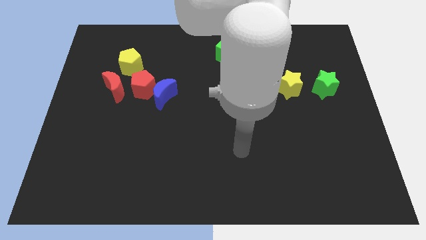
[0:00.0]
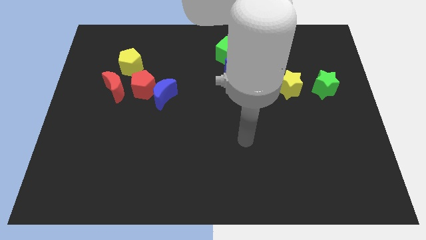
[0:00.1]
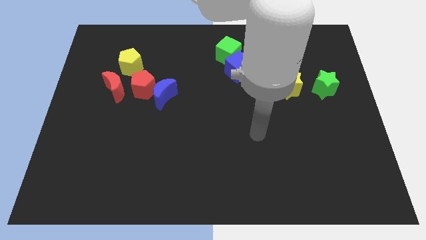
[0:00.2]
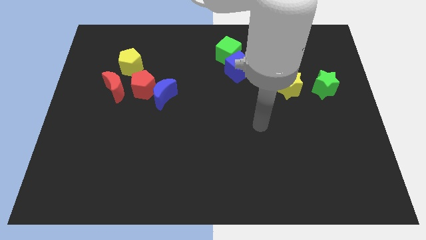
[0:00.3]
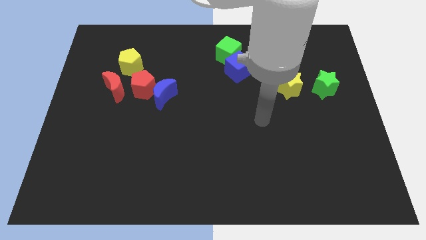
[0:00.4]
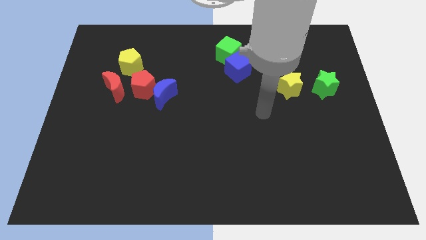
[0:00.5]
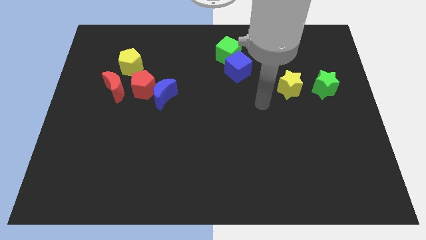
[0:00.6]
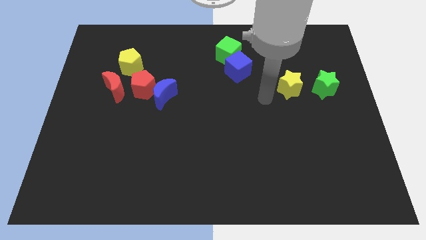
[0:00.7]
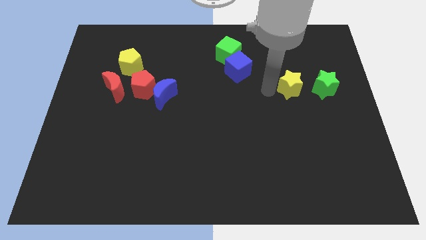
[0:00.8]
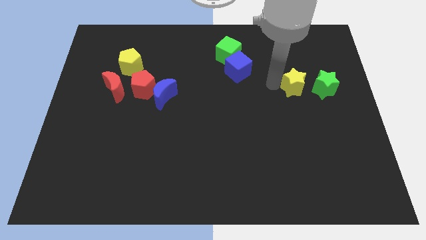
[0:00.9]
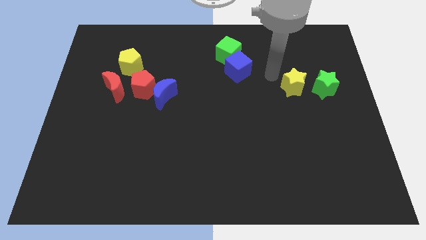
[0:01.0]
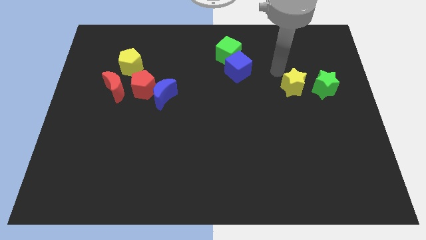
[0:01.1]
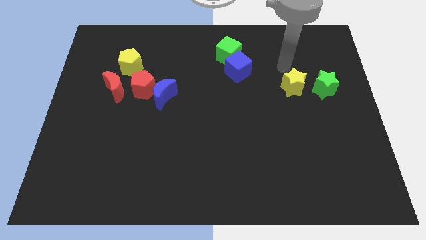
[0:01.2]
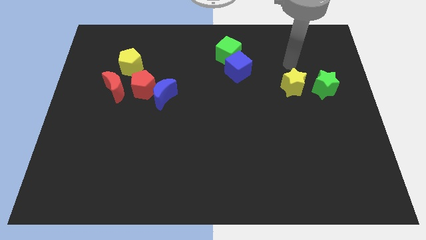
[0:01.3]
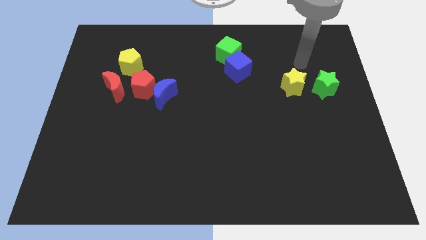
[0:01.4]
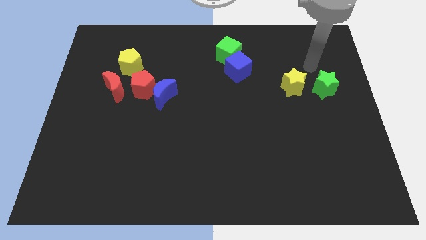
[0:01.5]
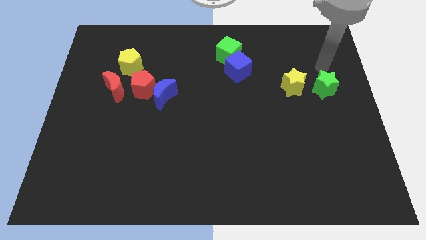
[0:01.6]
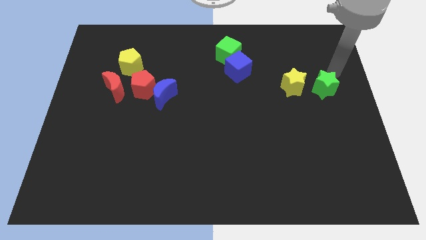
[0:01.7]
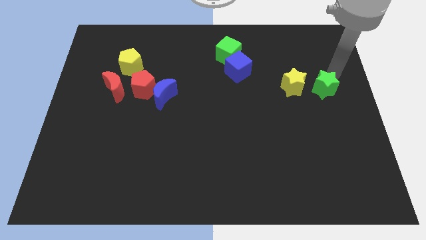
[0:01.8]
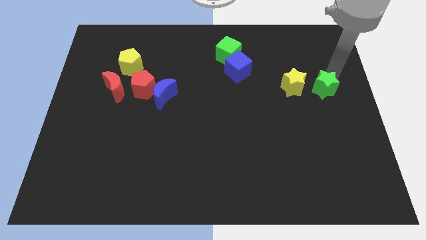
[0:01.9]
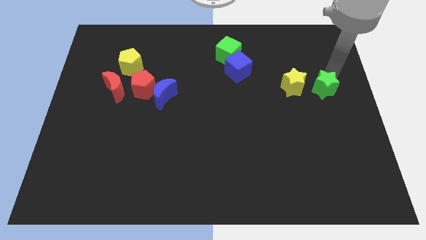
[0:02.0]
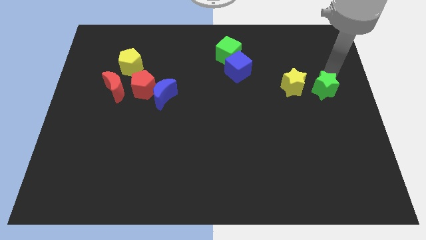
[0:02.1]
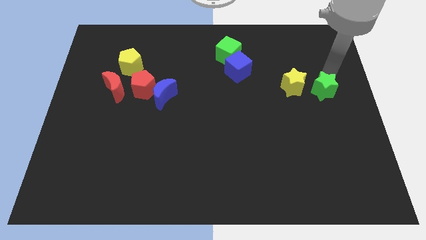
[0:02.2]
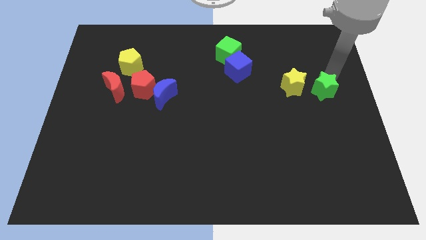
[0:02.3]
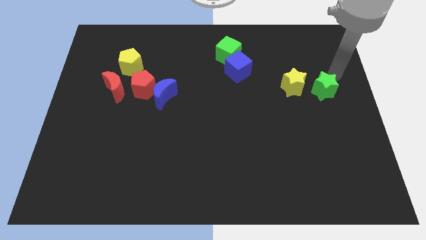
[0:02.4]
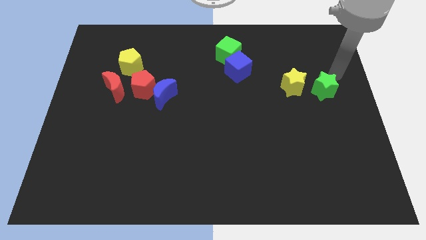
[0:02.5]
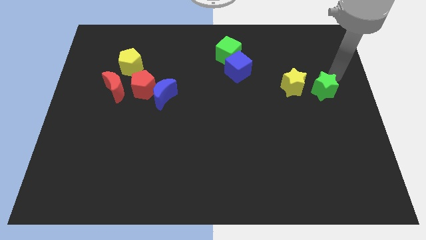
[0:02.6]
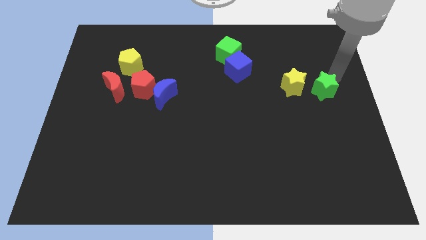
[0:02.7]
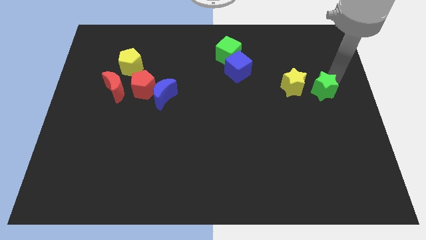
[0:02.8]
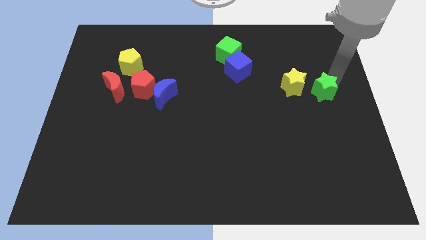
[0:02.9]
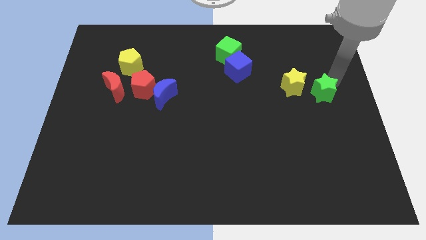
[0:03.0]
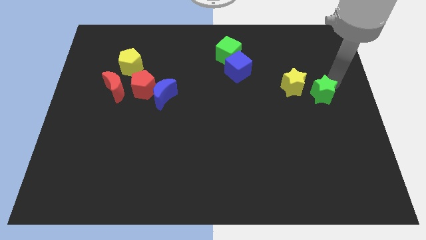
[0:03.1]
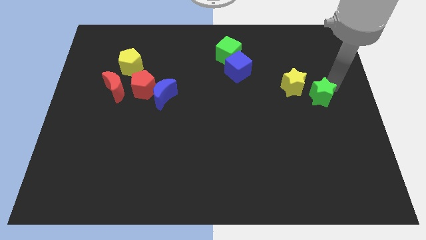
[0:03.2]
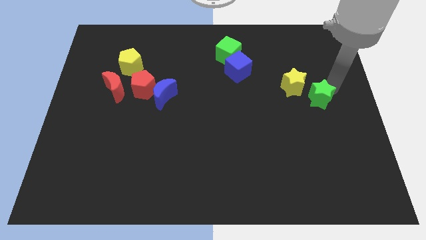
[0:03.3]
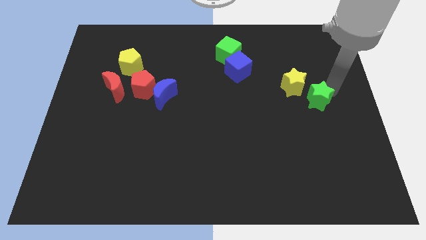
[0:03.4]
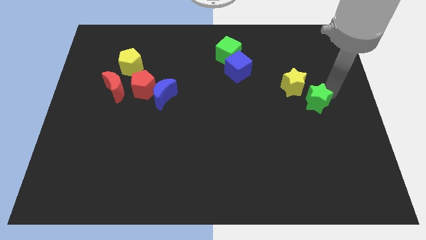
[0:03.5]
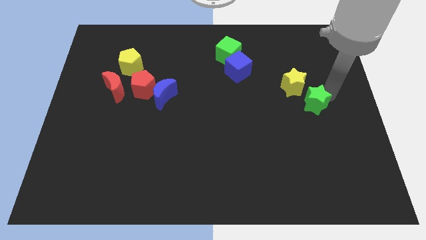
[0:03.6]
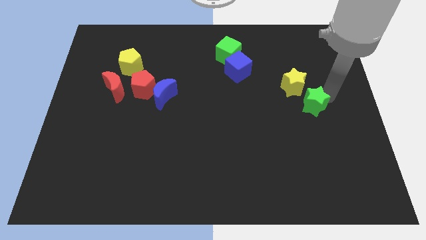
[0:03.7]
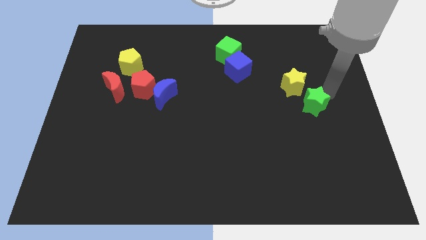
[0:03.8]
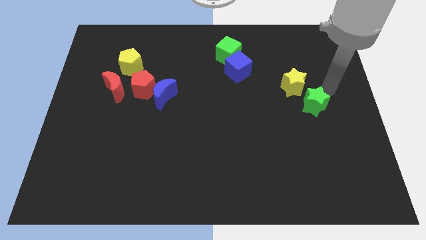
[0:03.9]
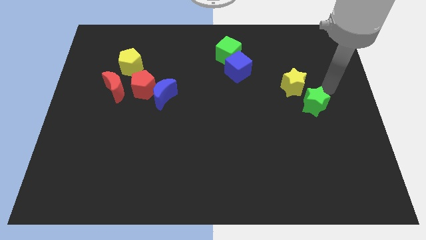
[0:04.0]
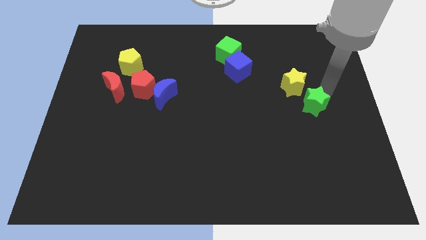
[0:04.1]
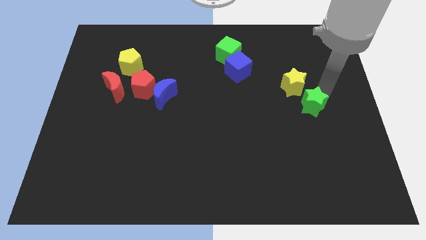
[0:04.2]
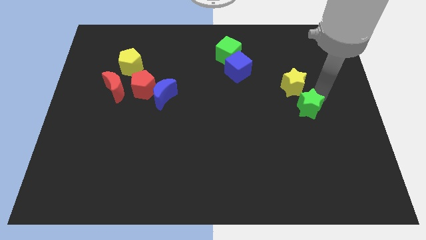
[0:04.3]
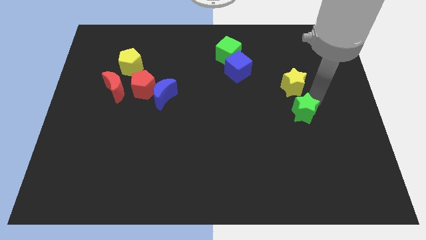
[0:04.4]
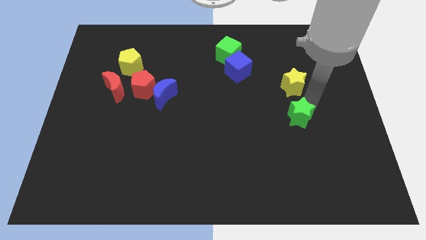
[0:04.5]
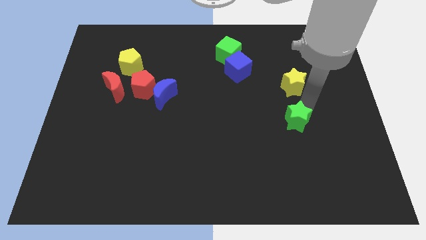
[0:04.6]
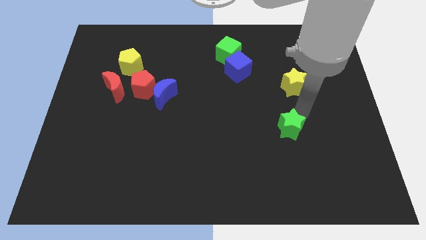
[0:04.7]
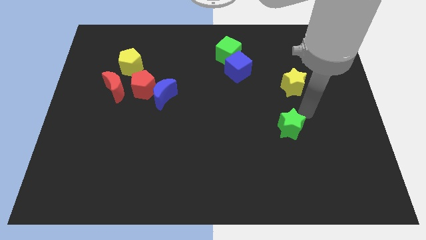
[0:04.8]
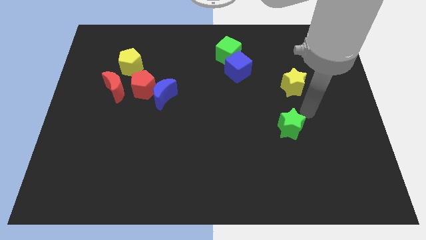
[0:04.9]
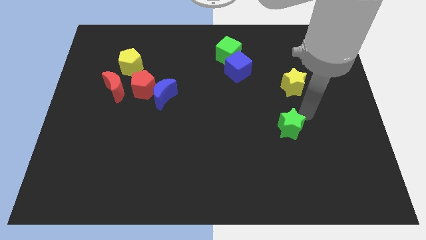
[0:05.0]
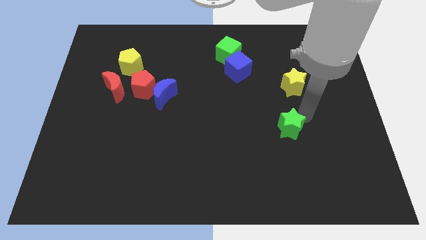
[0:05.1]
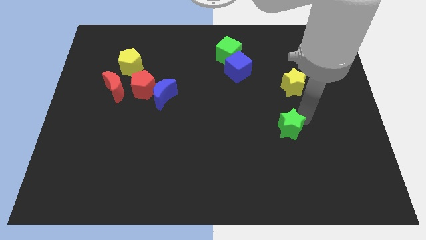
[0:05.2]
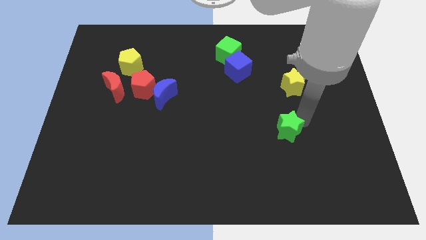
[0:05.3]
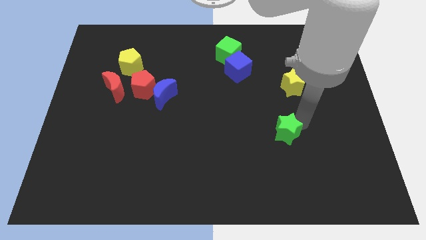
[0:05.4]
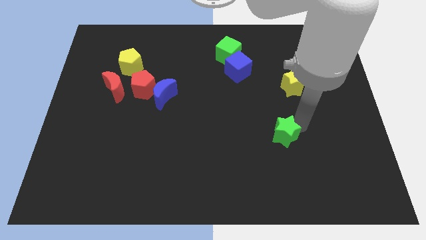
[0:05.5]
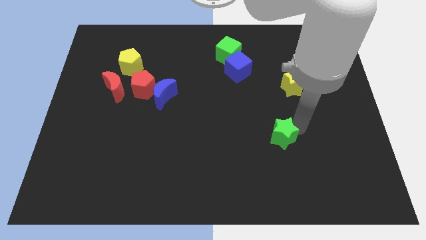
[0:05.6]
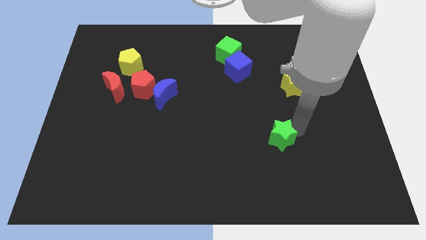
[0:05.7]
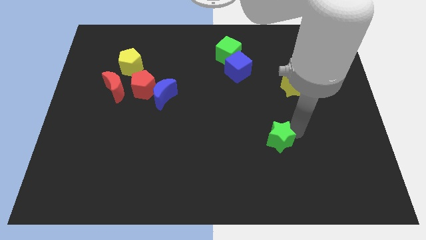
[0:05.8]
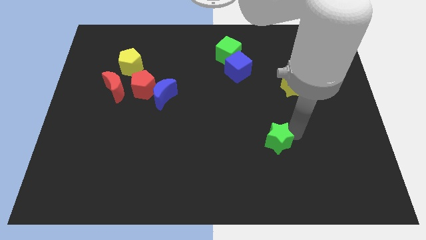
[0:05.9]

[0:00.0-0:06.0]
push the green star diagonally down and to the left

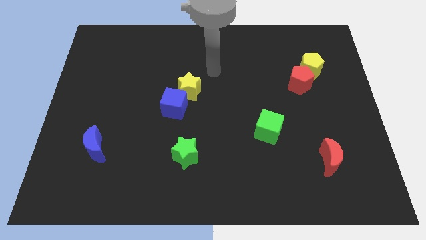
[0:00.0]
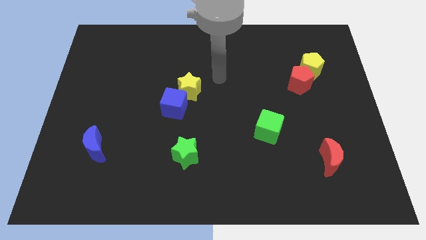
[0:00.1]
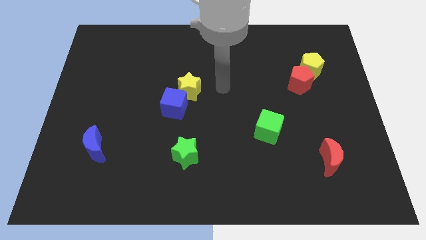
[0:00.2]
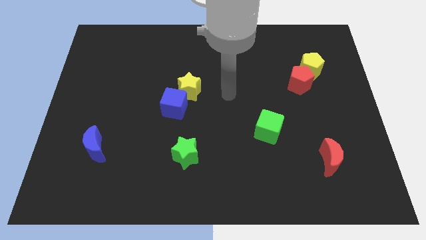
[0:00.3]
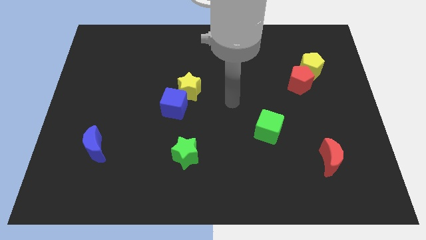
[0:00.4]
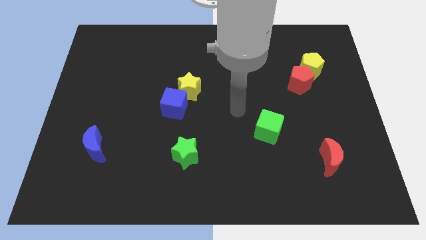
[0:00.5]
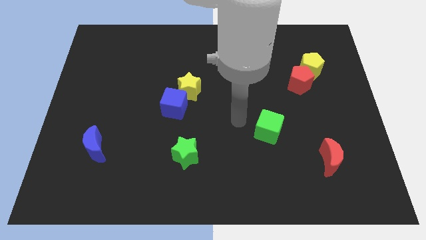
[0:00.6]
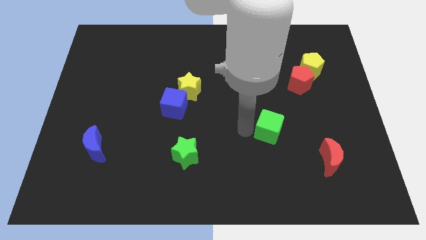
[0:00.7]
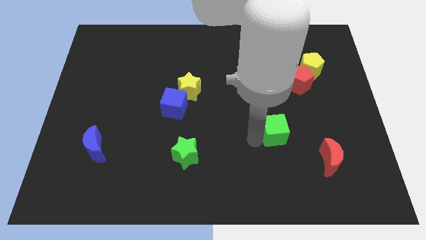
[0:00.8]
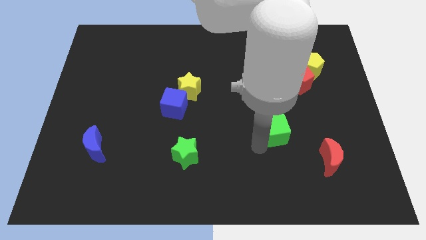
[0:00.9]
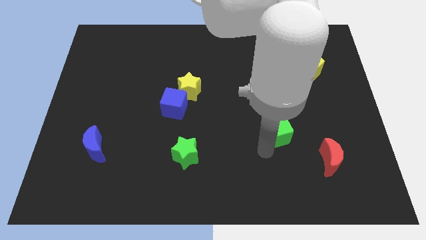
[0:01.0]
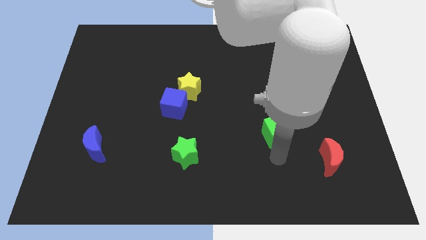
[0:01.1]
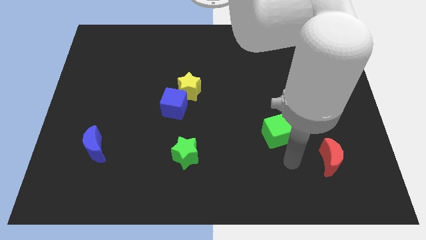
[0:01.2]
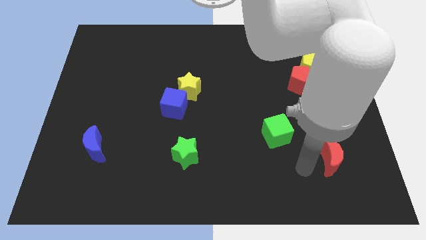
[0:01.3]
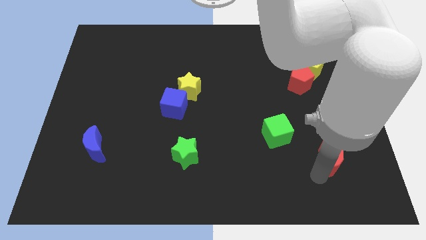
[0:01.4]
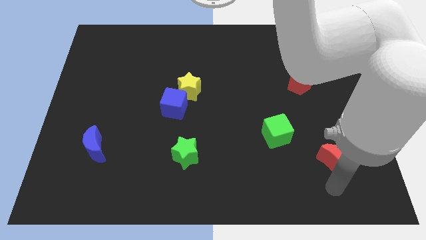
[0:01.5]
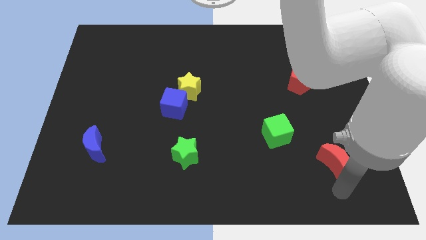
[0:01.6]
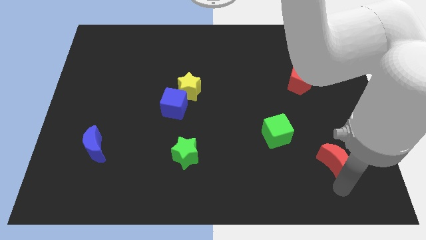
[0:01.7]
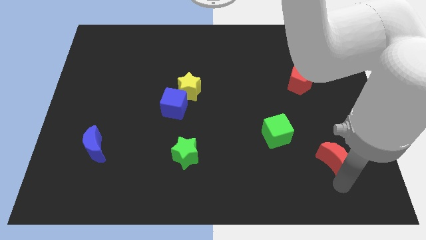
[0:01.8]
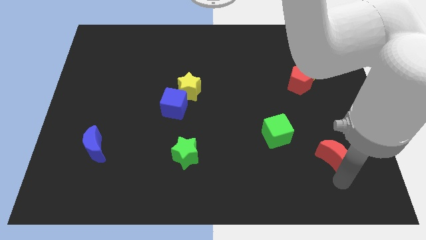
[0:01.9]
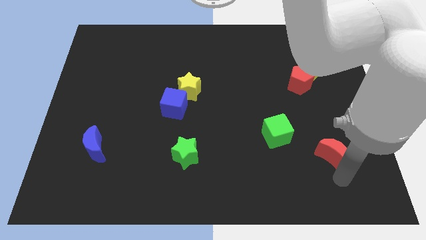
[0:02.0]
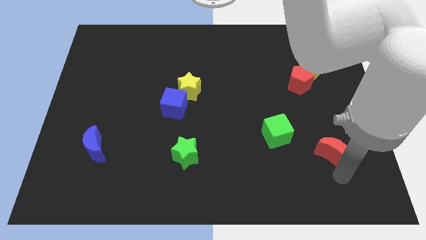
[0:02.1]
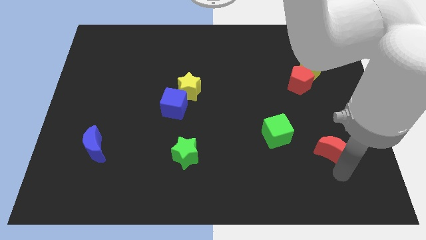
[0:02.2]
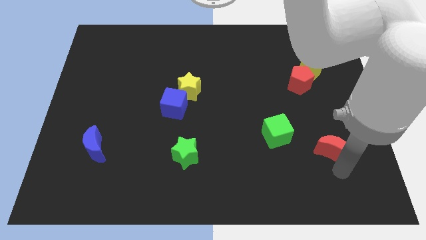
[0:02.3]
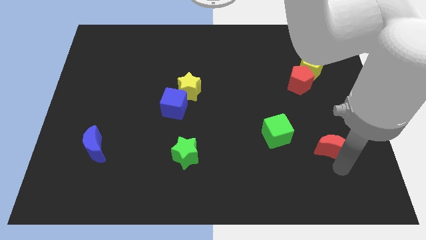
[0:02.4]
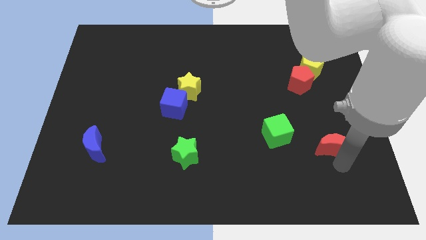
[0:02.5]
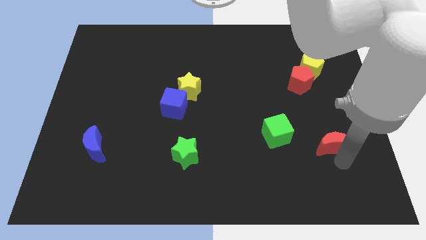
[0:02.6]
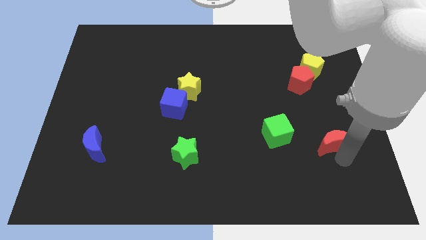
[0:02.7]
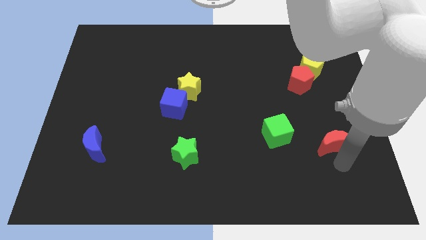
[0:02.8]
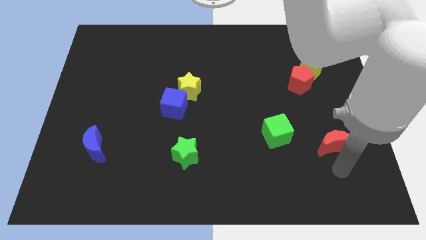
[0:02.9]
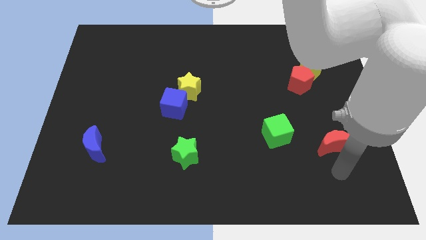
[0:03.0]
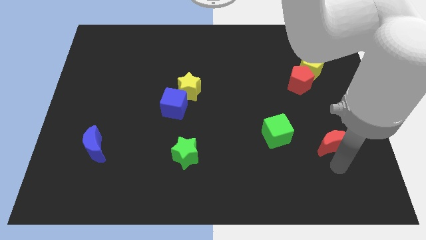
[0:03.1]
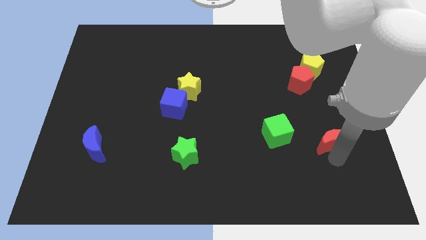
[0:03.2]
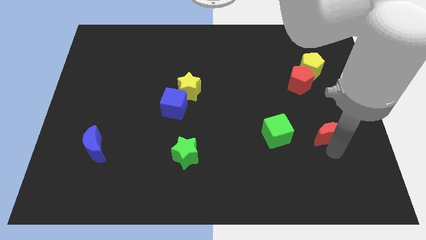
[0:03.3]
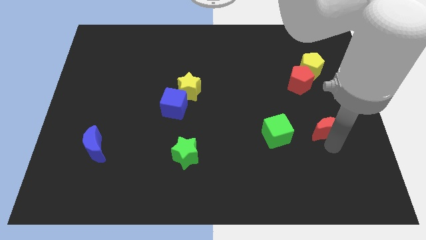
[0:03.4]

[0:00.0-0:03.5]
slightly push the red moon upwards
